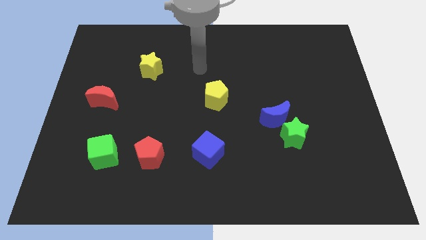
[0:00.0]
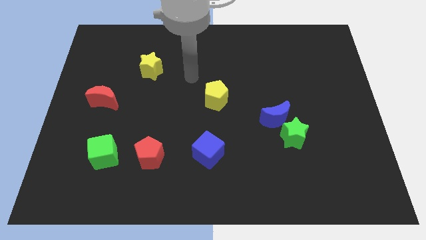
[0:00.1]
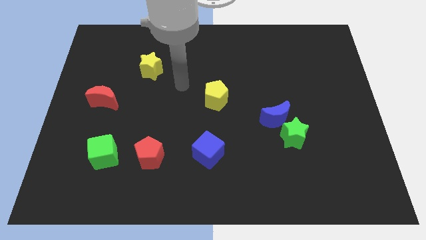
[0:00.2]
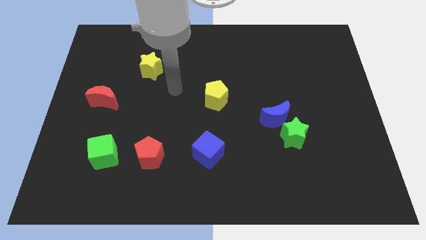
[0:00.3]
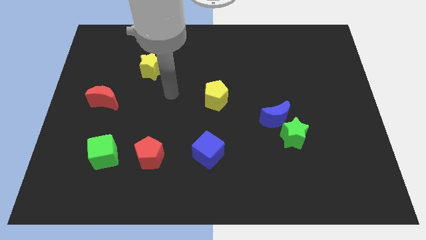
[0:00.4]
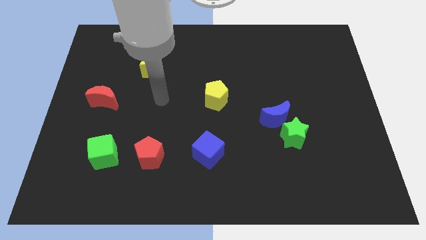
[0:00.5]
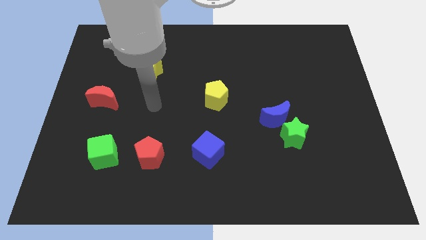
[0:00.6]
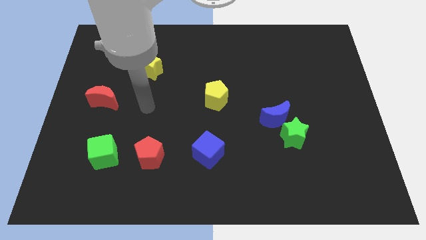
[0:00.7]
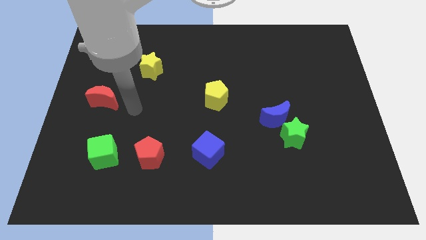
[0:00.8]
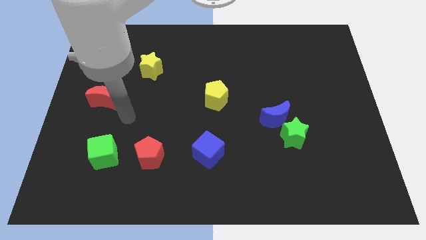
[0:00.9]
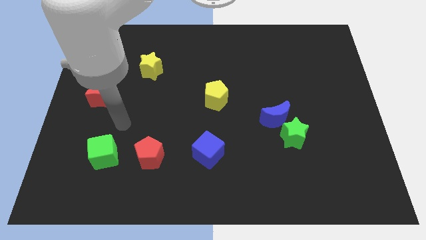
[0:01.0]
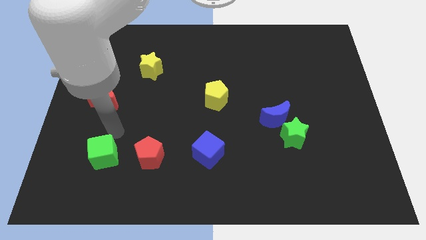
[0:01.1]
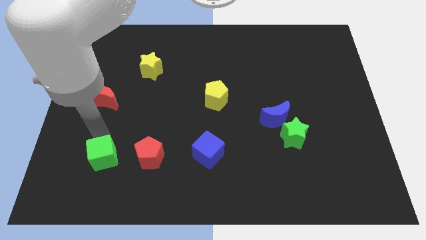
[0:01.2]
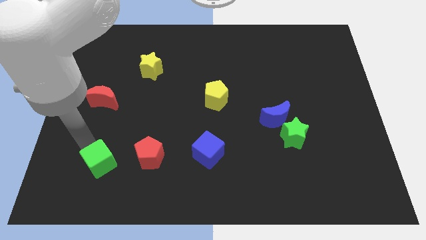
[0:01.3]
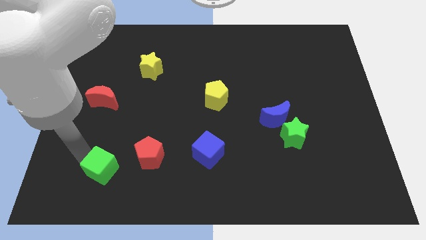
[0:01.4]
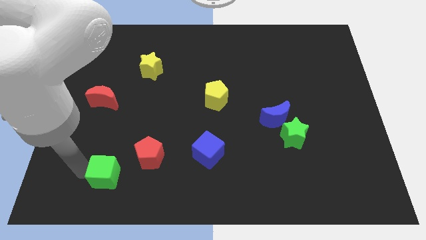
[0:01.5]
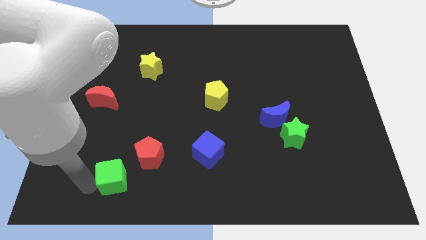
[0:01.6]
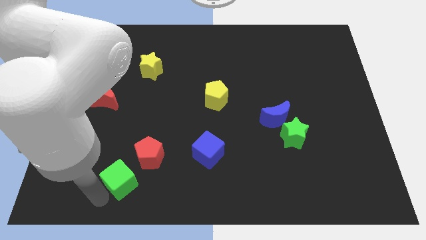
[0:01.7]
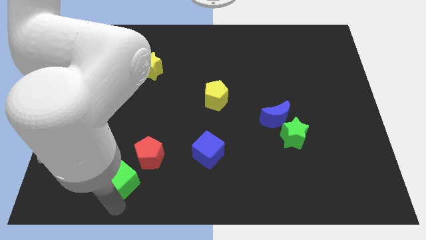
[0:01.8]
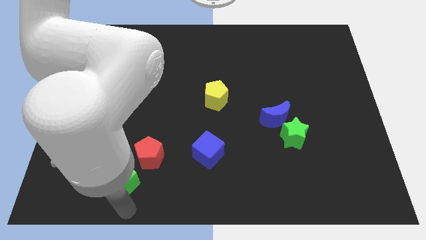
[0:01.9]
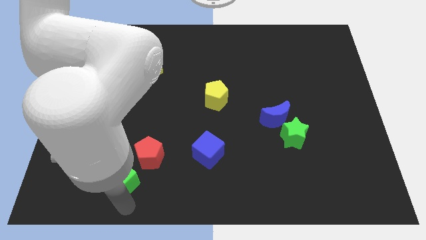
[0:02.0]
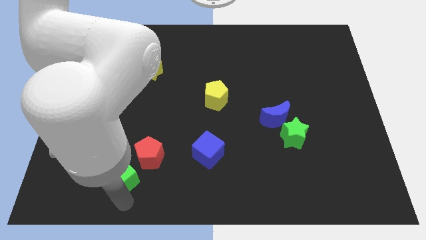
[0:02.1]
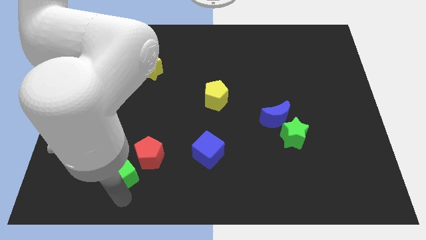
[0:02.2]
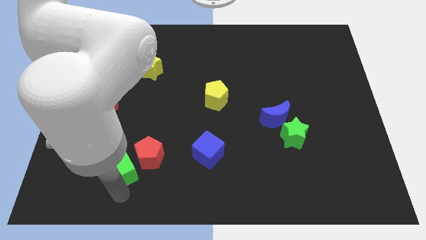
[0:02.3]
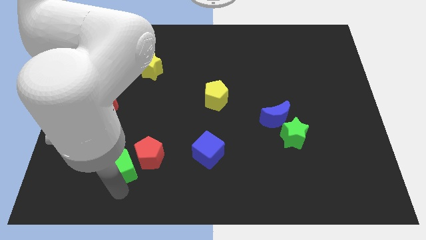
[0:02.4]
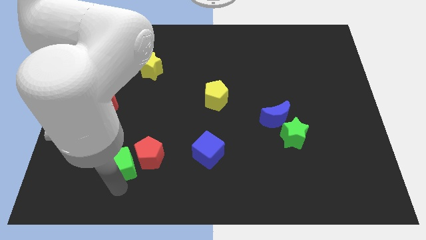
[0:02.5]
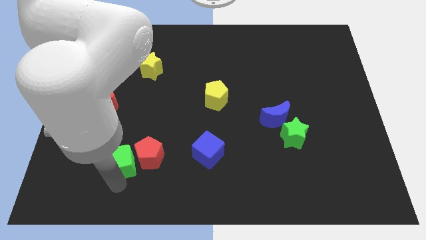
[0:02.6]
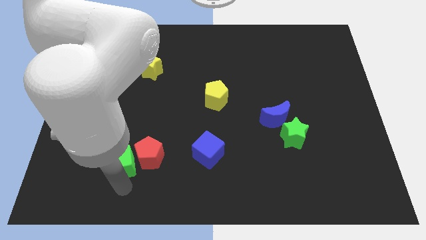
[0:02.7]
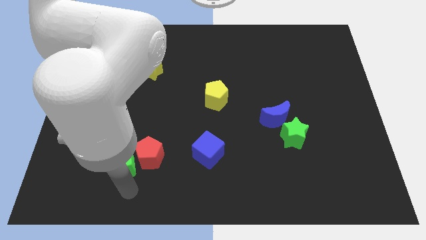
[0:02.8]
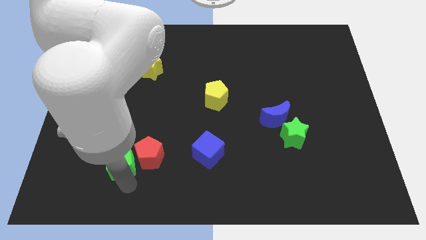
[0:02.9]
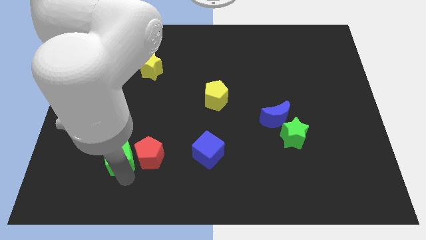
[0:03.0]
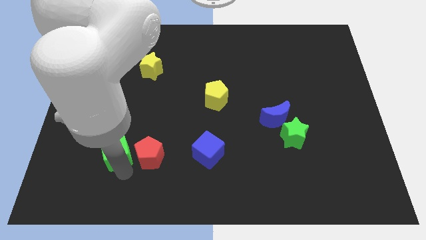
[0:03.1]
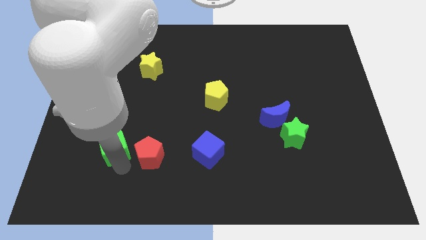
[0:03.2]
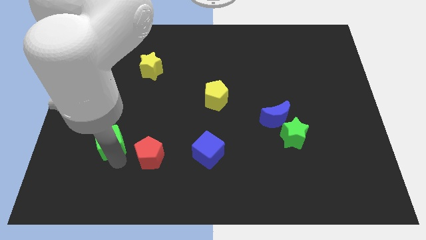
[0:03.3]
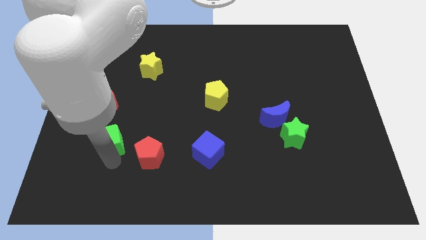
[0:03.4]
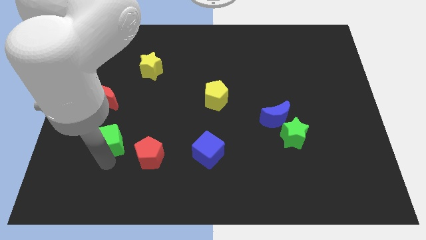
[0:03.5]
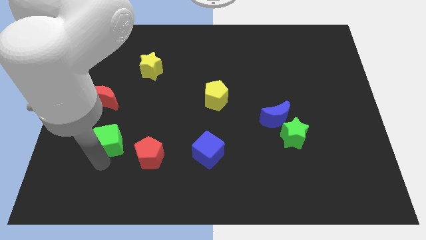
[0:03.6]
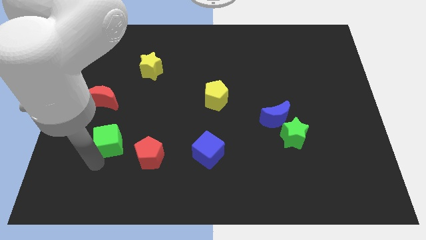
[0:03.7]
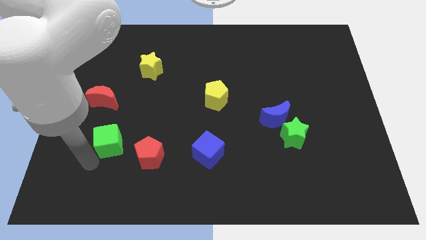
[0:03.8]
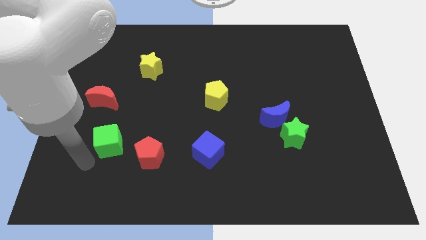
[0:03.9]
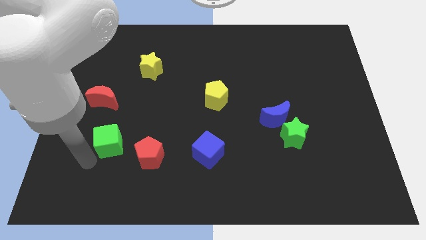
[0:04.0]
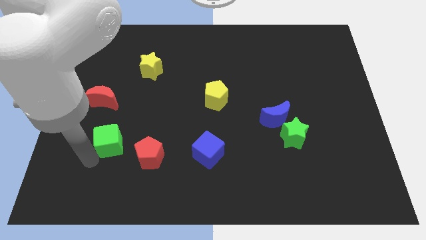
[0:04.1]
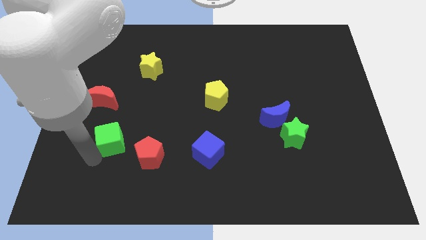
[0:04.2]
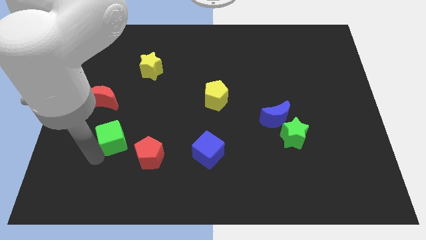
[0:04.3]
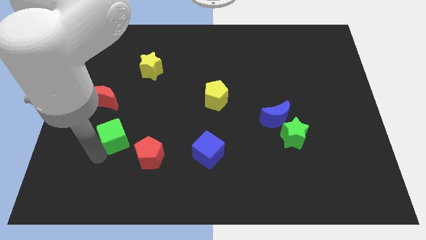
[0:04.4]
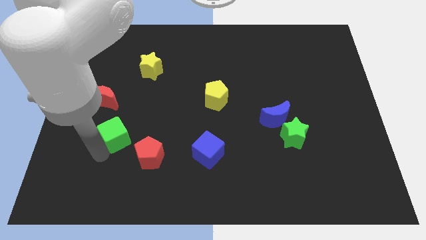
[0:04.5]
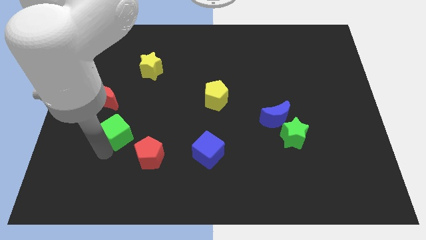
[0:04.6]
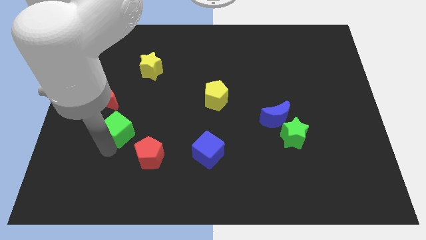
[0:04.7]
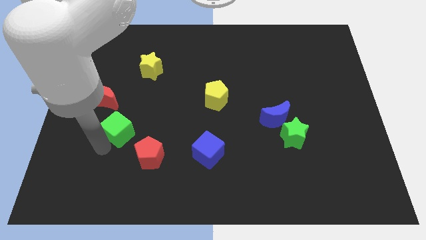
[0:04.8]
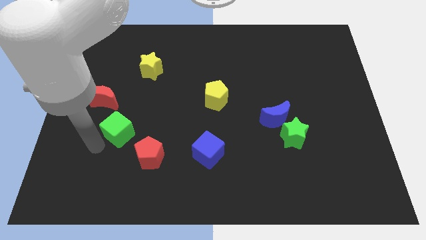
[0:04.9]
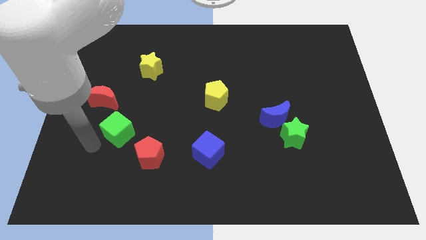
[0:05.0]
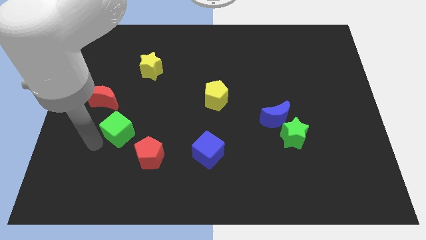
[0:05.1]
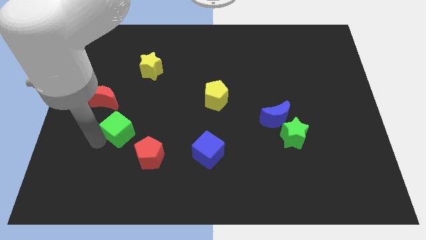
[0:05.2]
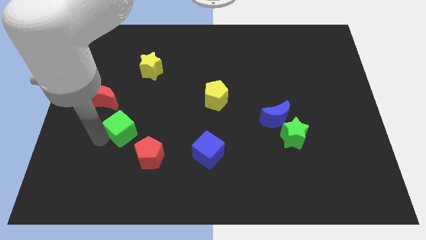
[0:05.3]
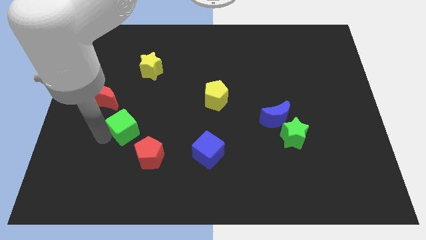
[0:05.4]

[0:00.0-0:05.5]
slightly push the green cube up and then to the right

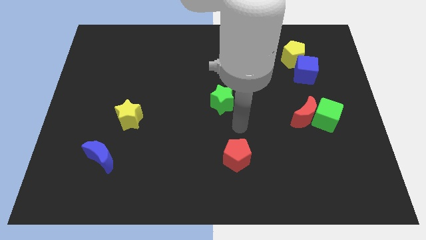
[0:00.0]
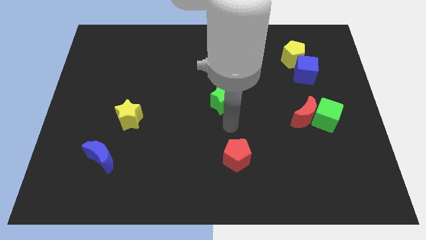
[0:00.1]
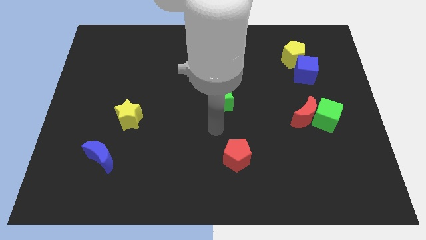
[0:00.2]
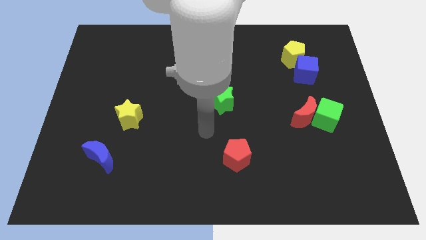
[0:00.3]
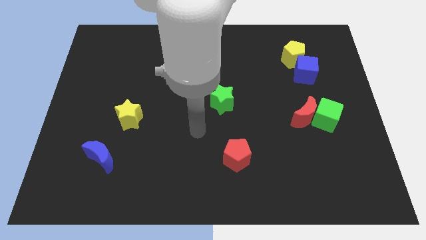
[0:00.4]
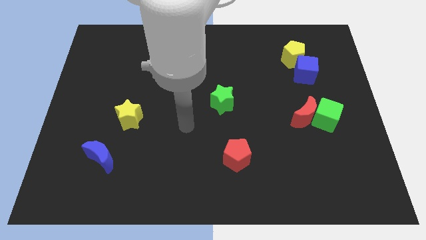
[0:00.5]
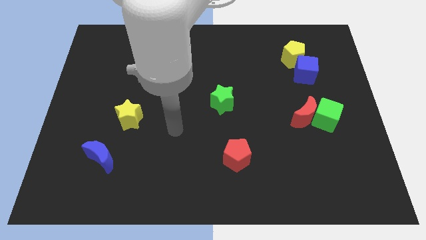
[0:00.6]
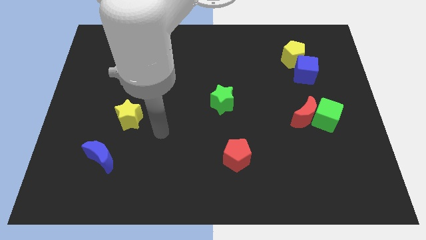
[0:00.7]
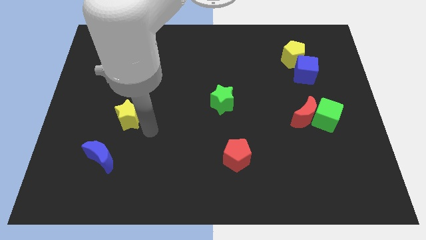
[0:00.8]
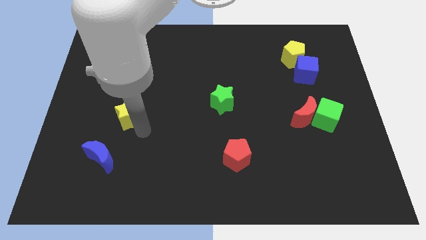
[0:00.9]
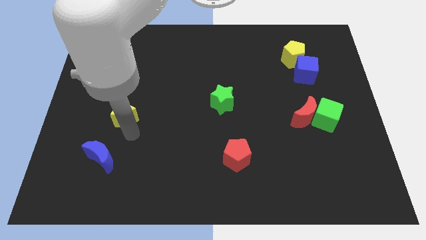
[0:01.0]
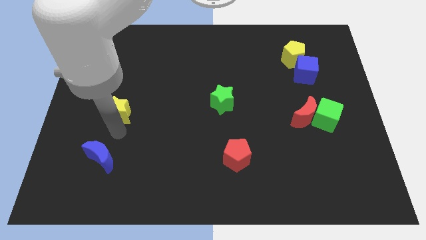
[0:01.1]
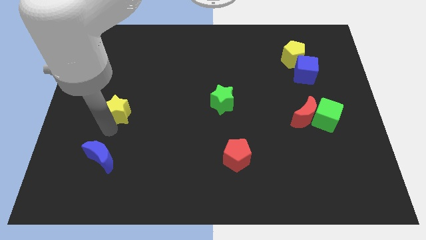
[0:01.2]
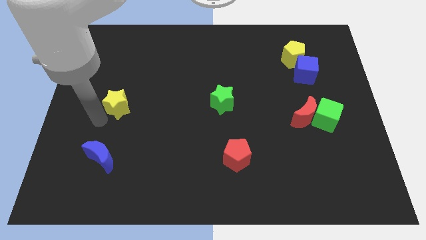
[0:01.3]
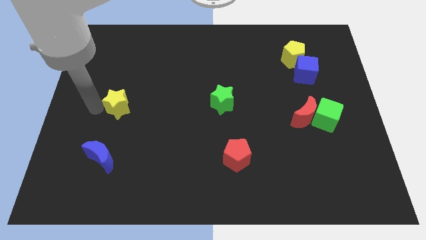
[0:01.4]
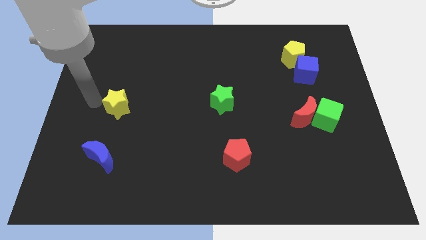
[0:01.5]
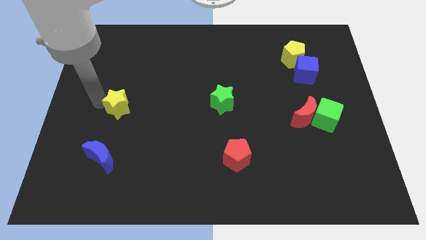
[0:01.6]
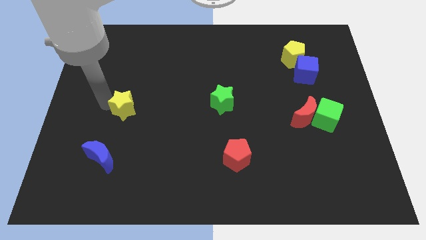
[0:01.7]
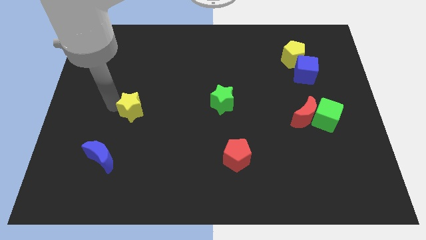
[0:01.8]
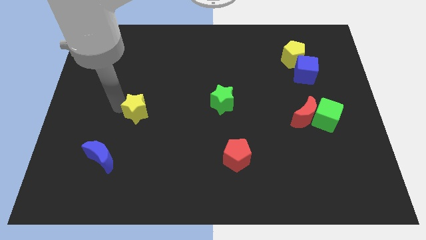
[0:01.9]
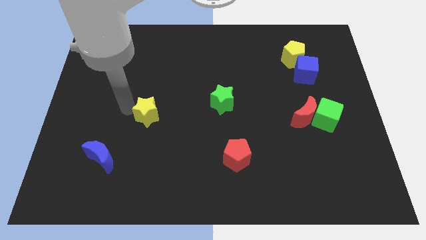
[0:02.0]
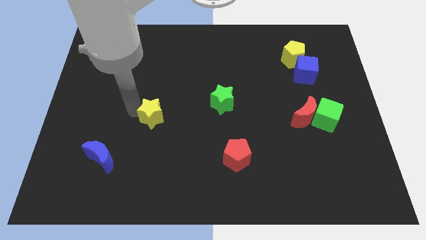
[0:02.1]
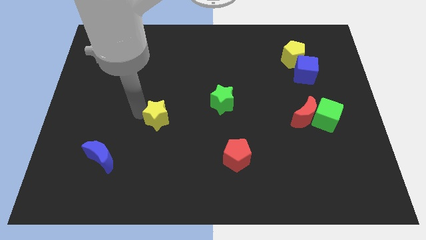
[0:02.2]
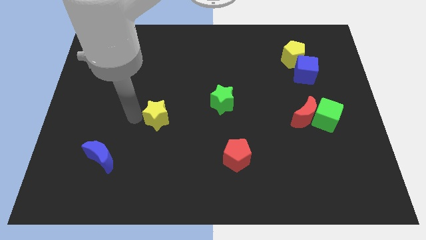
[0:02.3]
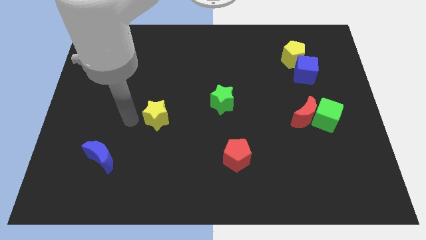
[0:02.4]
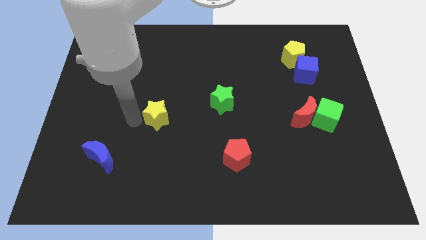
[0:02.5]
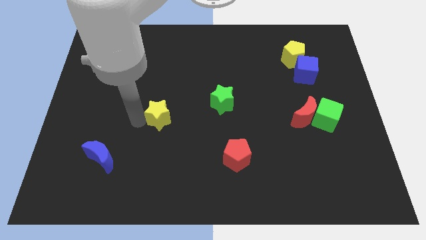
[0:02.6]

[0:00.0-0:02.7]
push the yellow star a little bit to the right
